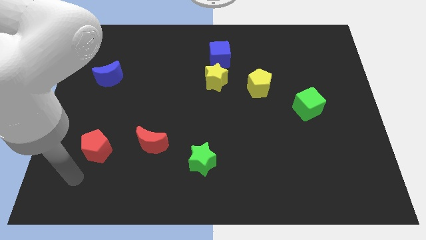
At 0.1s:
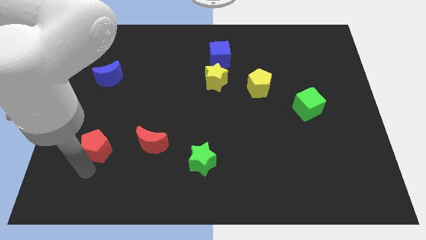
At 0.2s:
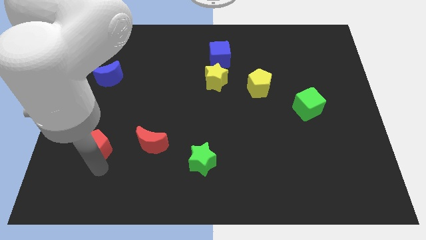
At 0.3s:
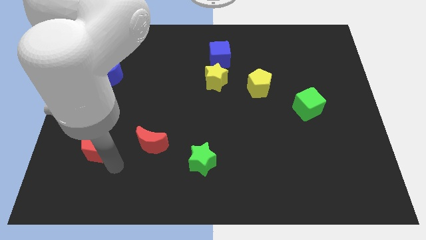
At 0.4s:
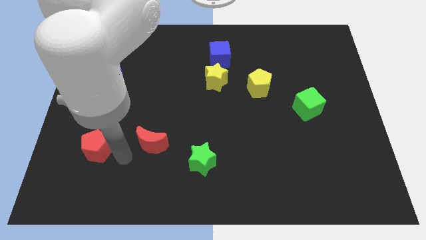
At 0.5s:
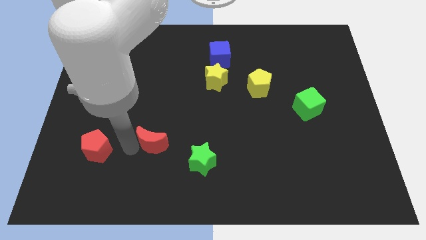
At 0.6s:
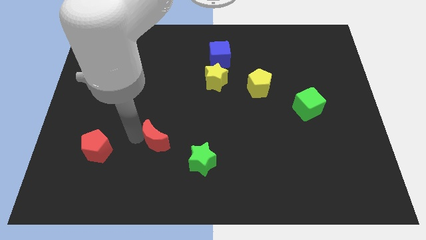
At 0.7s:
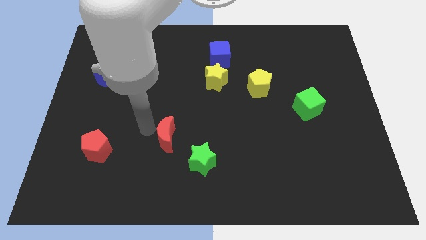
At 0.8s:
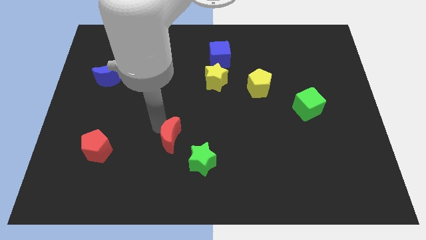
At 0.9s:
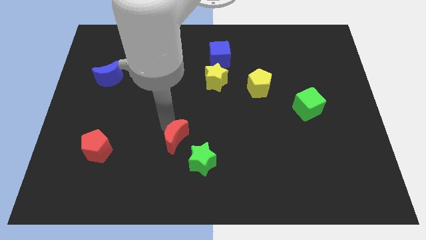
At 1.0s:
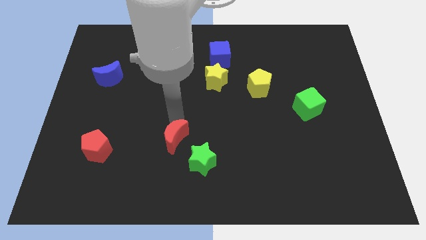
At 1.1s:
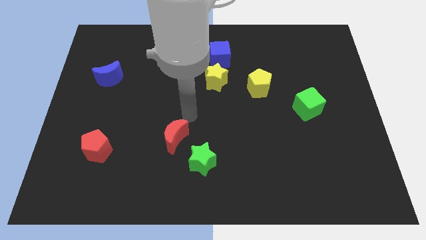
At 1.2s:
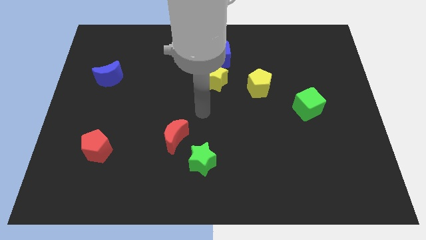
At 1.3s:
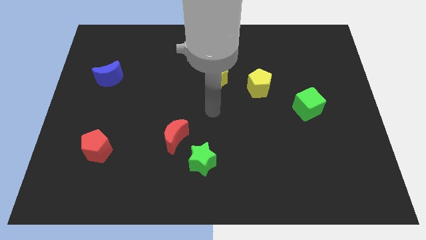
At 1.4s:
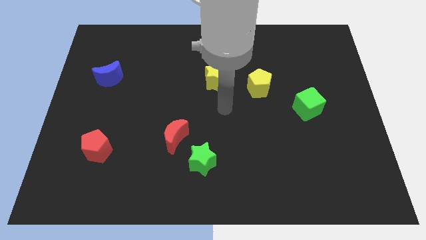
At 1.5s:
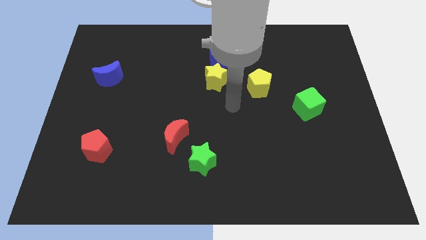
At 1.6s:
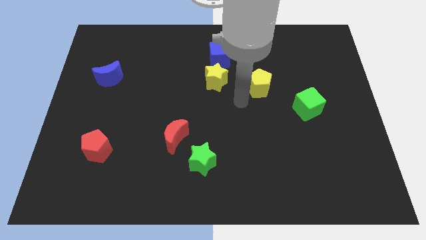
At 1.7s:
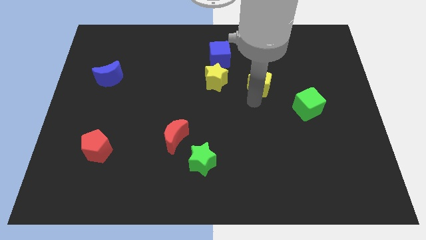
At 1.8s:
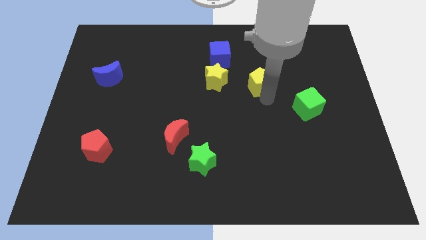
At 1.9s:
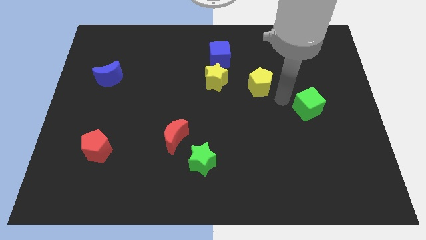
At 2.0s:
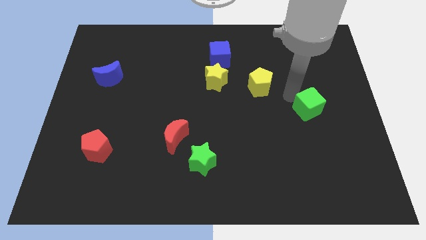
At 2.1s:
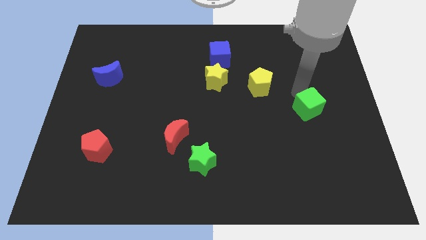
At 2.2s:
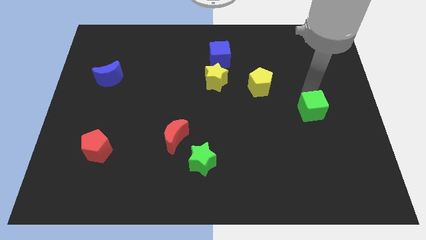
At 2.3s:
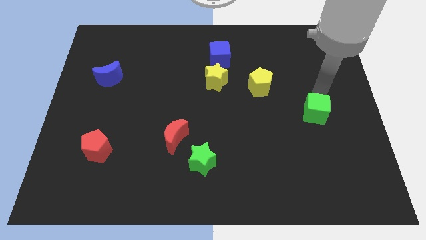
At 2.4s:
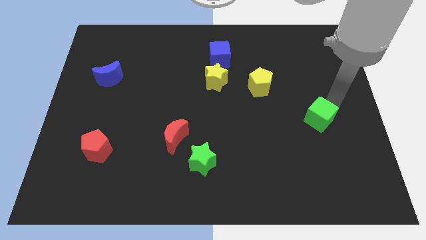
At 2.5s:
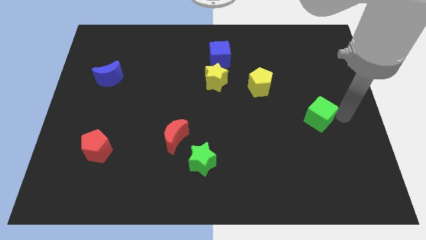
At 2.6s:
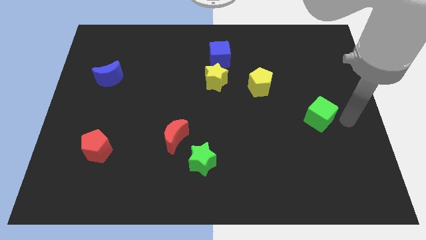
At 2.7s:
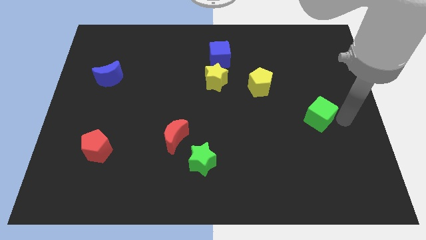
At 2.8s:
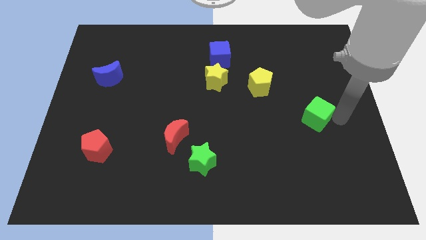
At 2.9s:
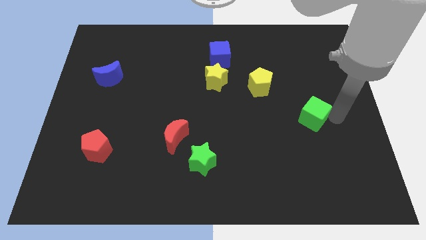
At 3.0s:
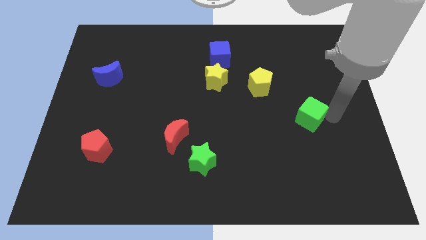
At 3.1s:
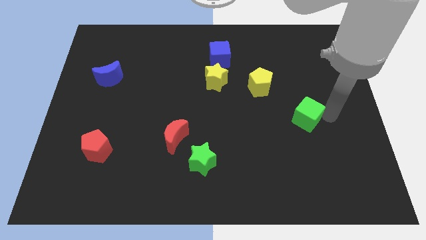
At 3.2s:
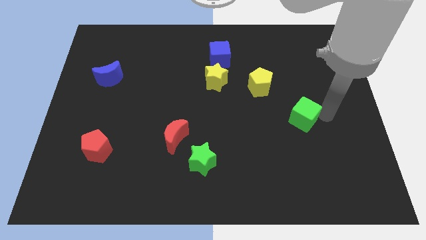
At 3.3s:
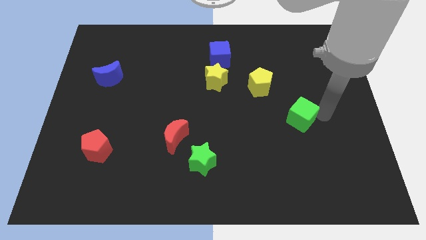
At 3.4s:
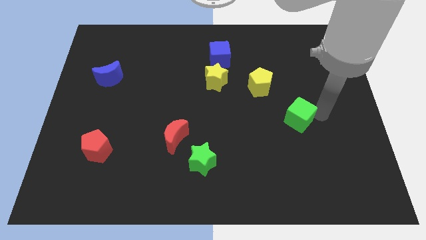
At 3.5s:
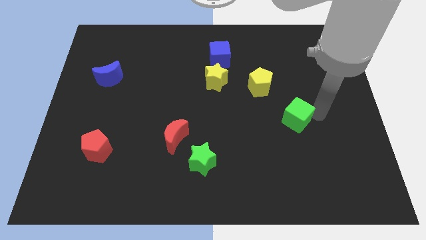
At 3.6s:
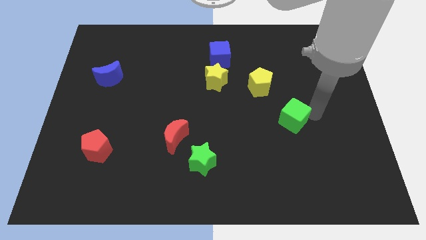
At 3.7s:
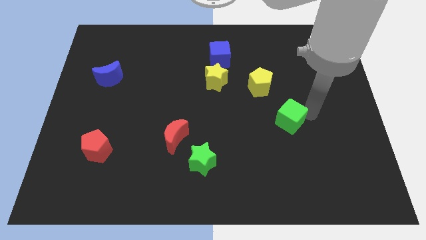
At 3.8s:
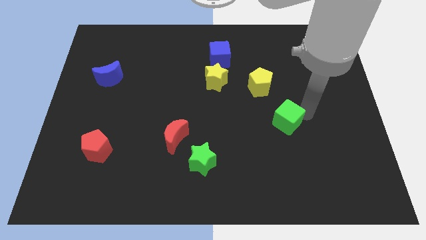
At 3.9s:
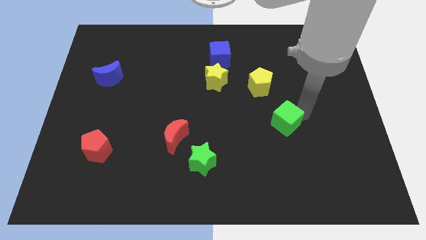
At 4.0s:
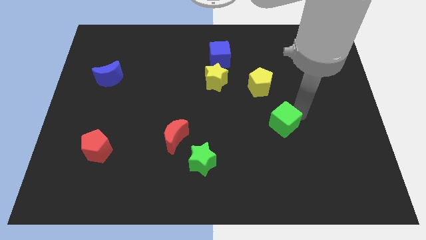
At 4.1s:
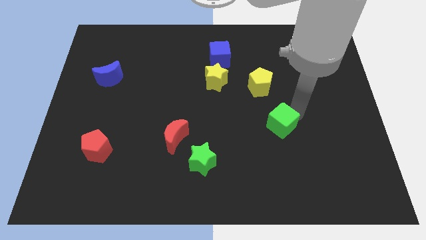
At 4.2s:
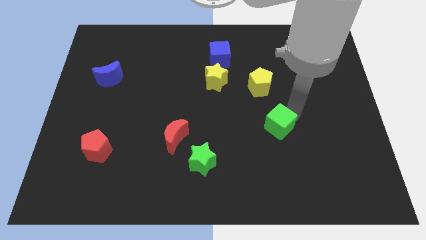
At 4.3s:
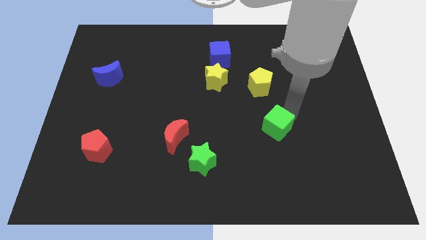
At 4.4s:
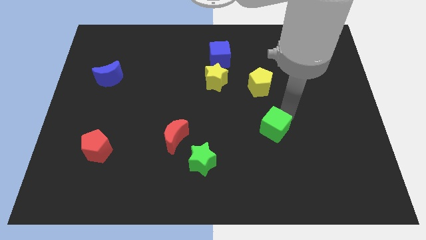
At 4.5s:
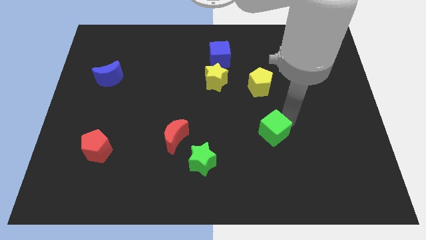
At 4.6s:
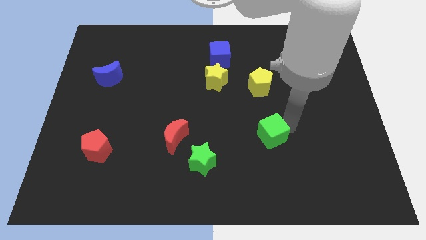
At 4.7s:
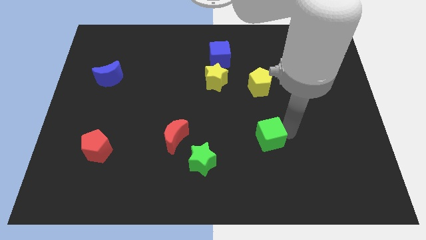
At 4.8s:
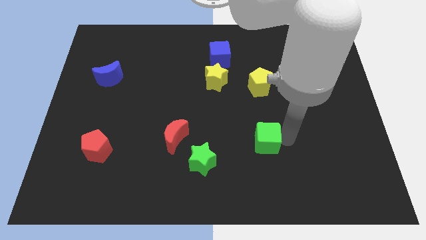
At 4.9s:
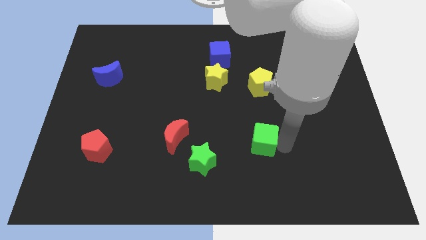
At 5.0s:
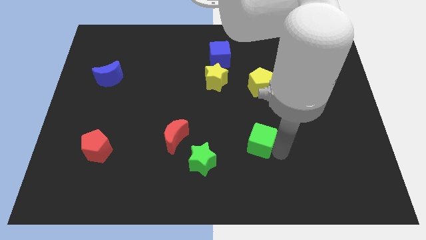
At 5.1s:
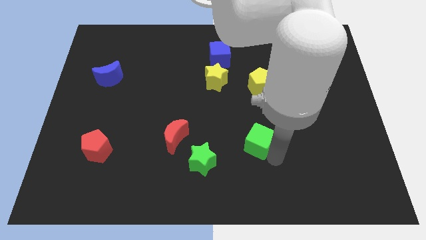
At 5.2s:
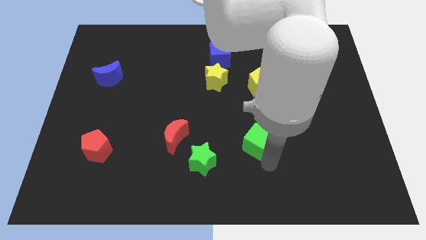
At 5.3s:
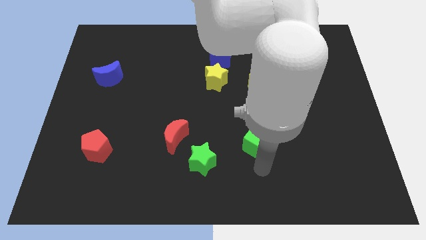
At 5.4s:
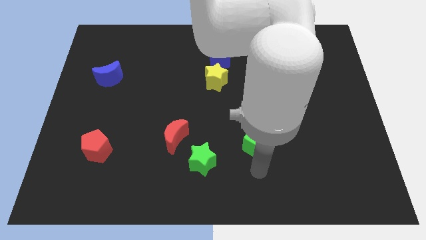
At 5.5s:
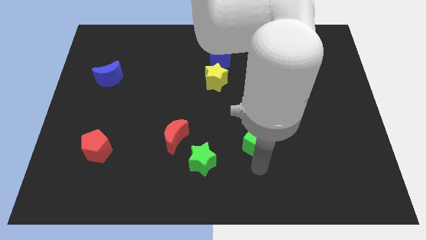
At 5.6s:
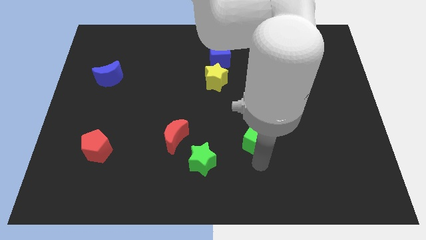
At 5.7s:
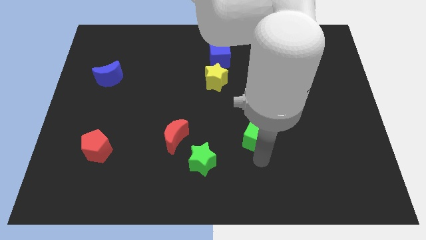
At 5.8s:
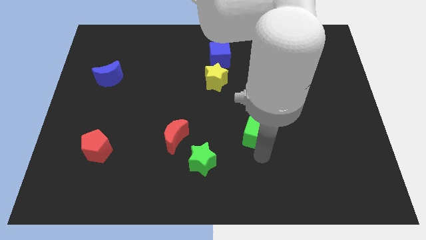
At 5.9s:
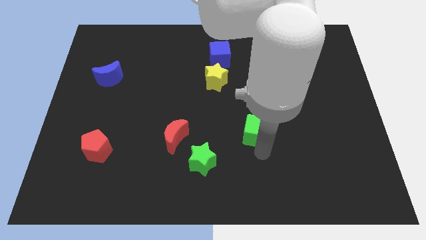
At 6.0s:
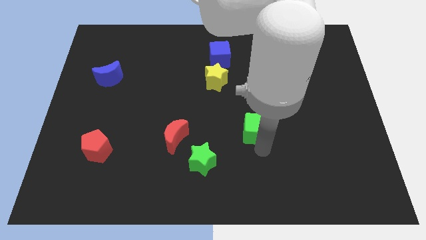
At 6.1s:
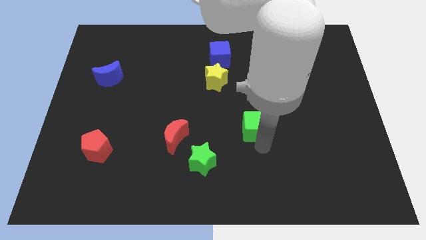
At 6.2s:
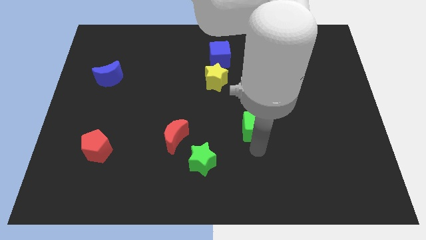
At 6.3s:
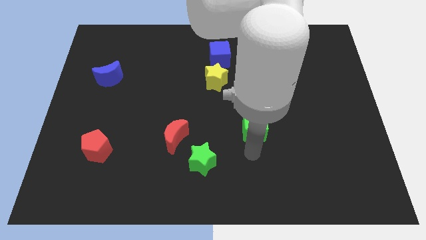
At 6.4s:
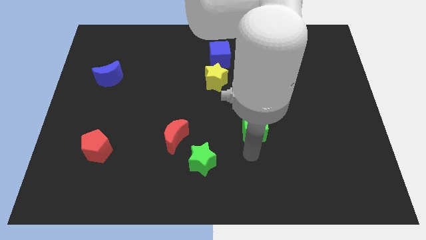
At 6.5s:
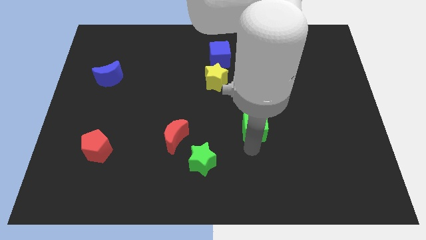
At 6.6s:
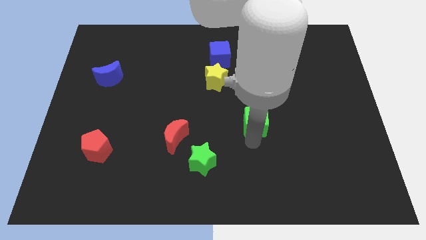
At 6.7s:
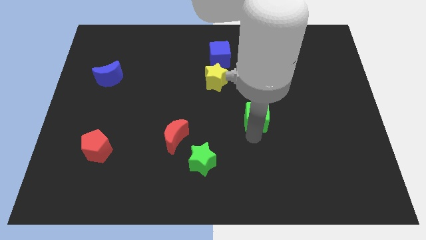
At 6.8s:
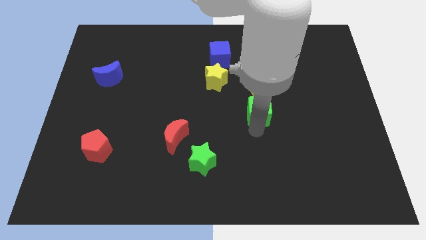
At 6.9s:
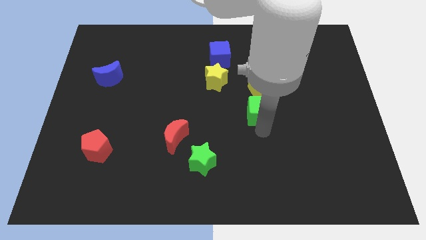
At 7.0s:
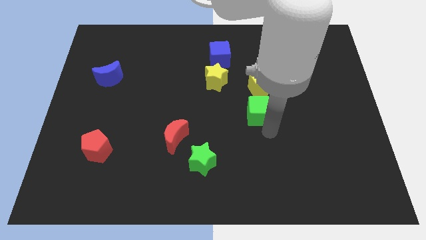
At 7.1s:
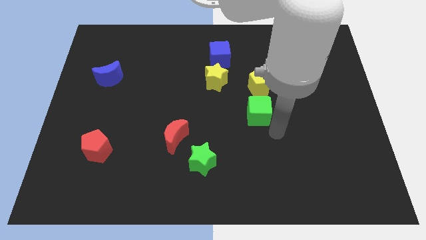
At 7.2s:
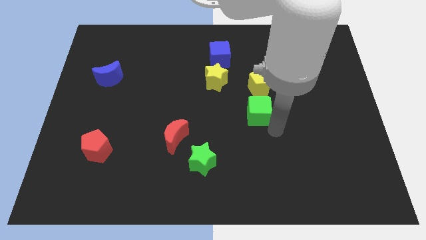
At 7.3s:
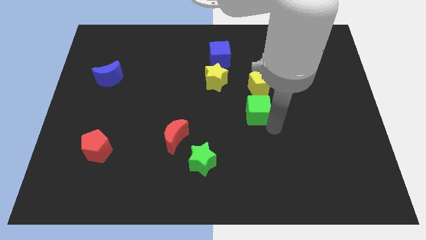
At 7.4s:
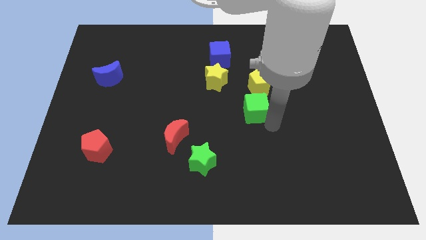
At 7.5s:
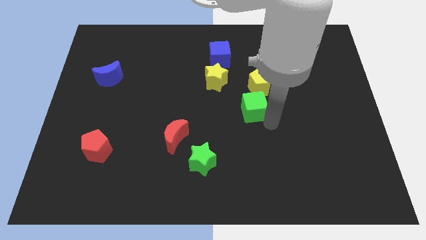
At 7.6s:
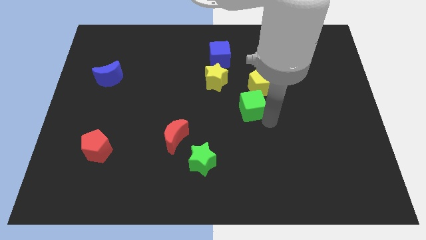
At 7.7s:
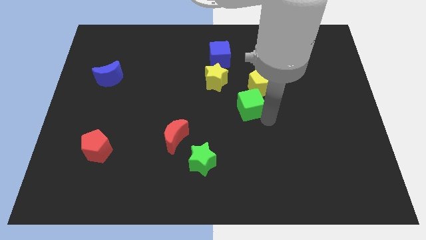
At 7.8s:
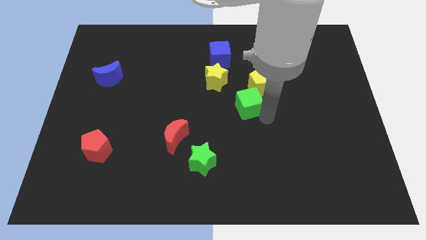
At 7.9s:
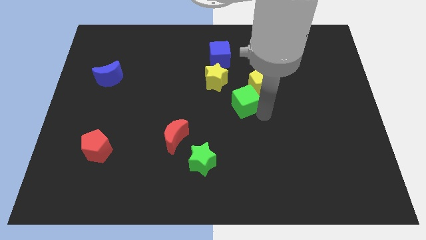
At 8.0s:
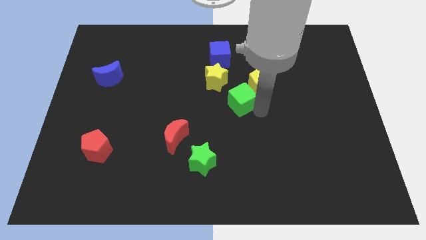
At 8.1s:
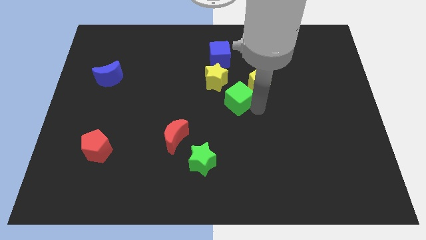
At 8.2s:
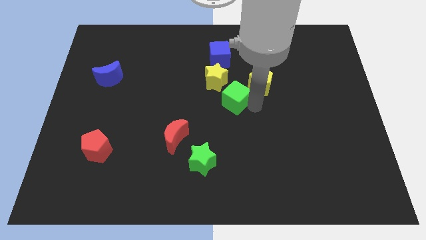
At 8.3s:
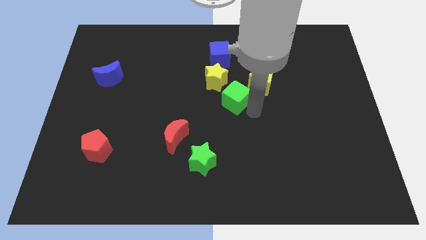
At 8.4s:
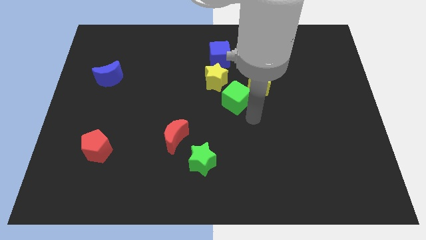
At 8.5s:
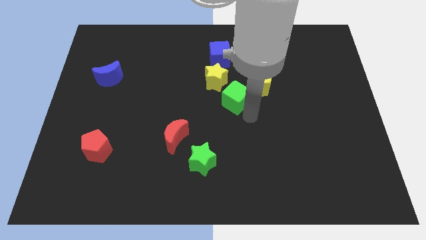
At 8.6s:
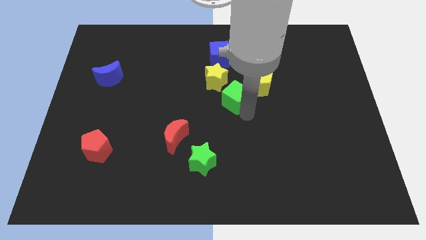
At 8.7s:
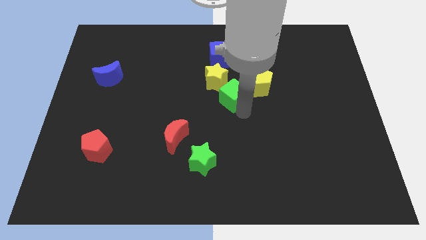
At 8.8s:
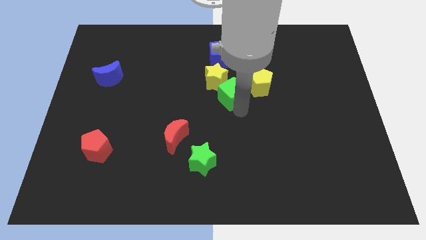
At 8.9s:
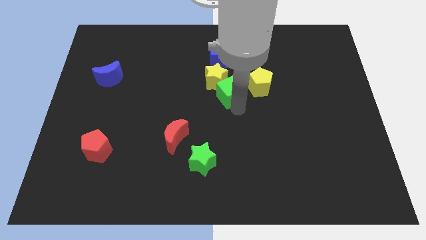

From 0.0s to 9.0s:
put the green cube to the yellow star

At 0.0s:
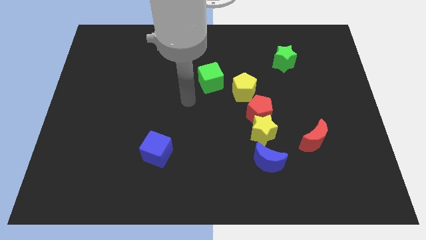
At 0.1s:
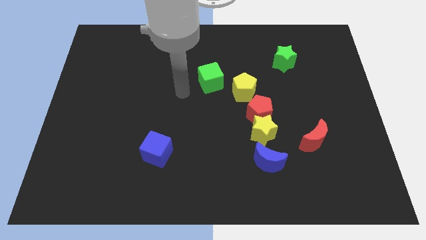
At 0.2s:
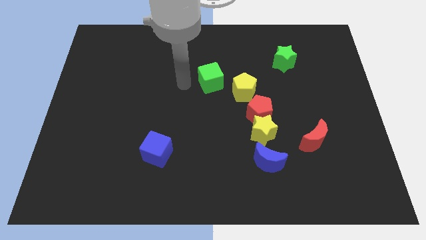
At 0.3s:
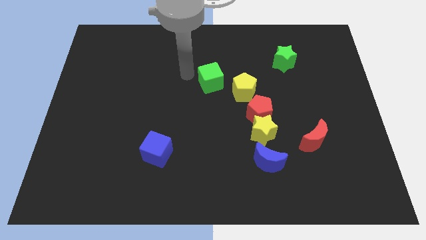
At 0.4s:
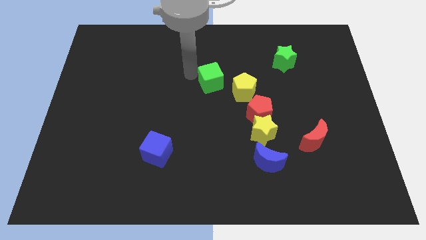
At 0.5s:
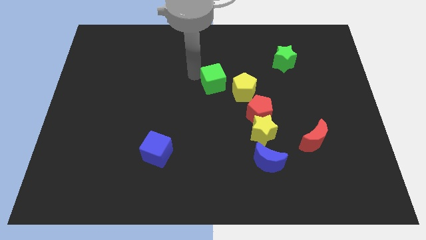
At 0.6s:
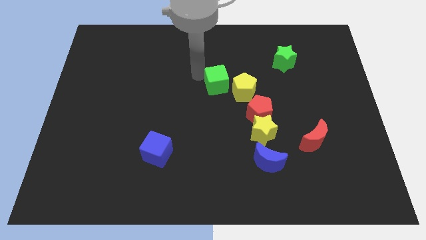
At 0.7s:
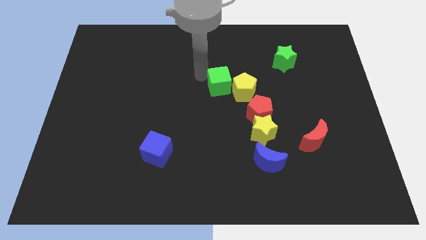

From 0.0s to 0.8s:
push the green cube next to the yellow pentagon
